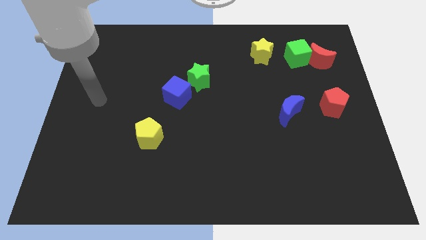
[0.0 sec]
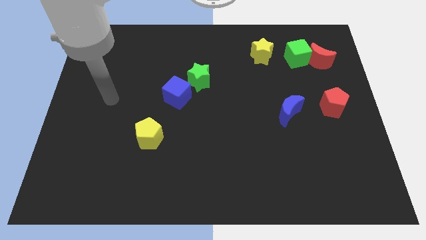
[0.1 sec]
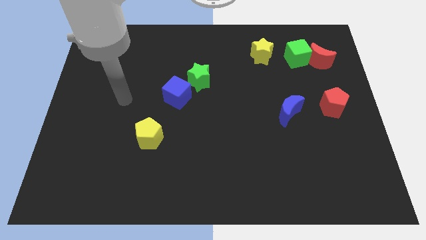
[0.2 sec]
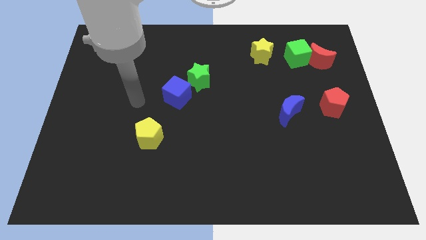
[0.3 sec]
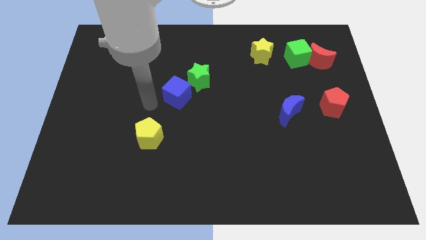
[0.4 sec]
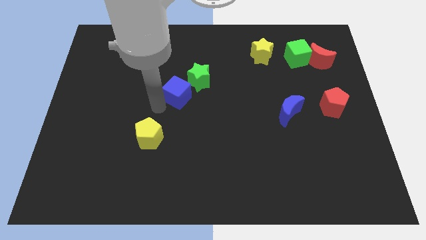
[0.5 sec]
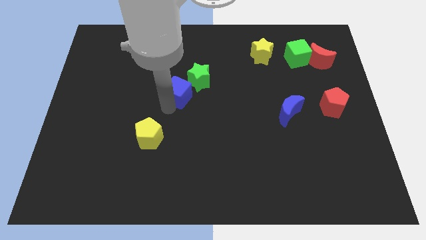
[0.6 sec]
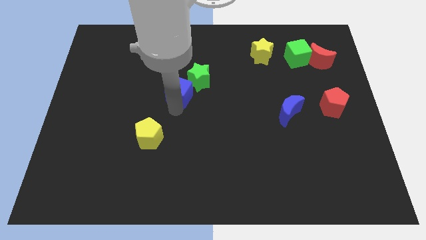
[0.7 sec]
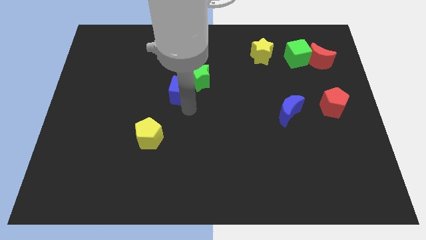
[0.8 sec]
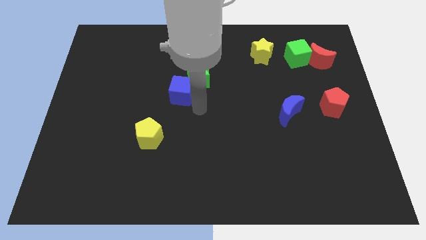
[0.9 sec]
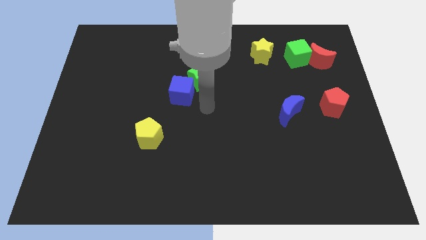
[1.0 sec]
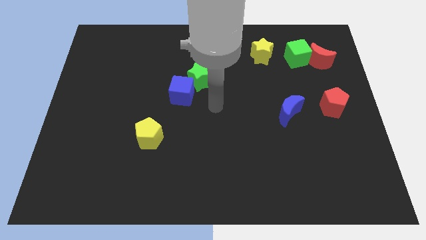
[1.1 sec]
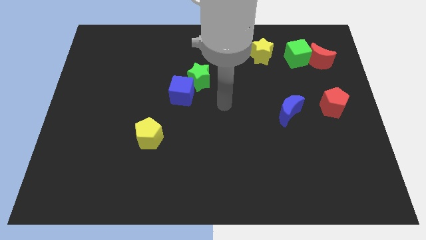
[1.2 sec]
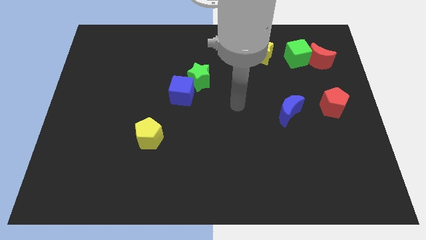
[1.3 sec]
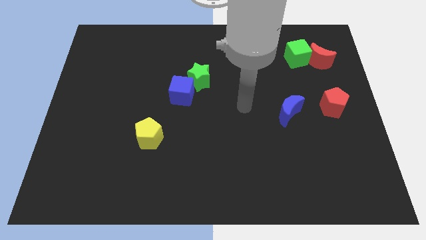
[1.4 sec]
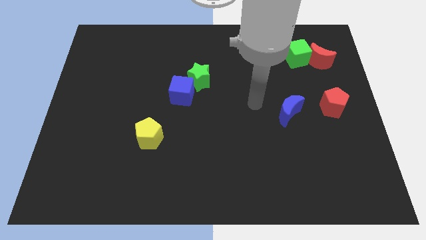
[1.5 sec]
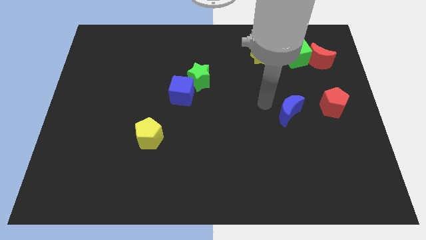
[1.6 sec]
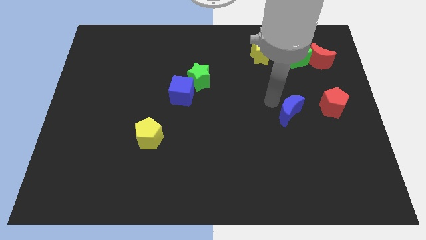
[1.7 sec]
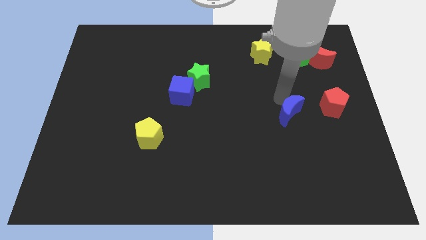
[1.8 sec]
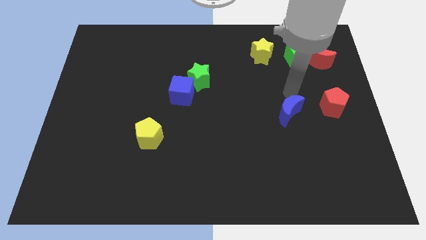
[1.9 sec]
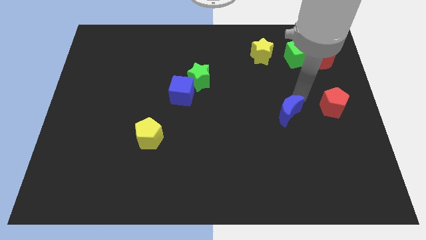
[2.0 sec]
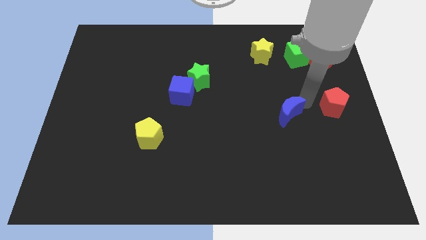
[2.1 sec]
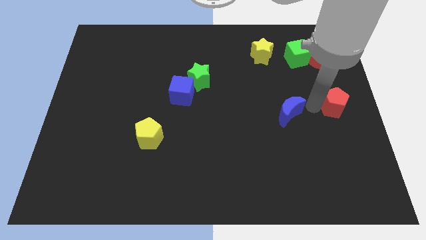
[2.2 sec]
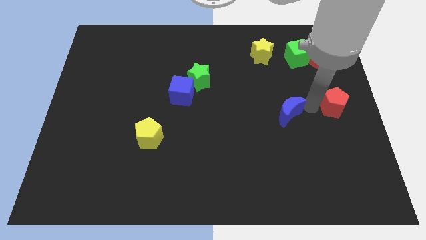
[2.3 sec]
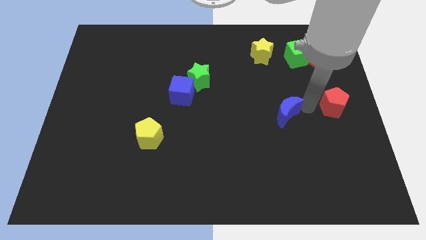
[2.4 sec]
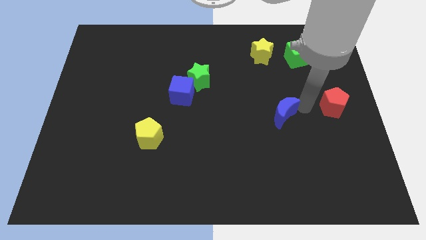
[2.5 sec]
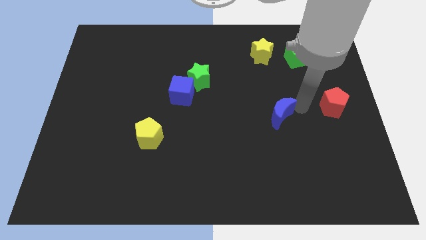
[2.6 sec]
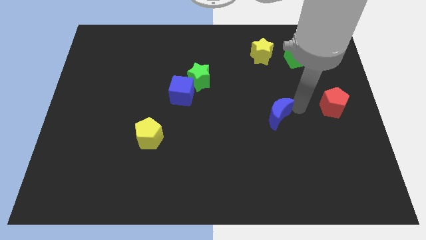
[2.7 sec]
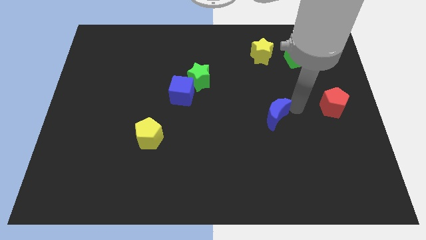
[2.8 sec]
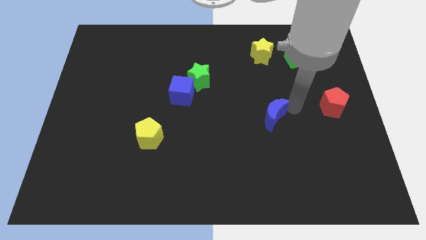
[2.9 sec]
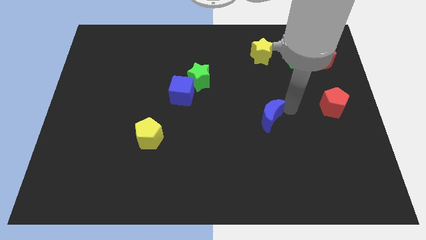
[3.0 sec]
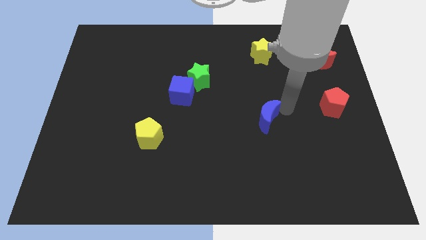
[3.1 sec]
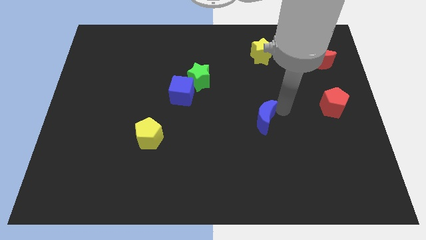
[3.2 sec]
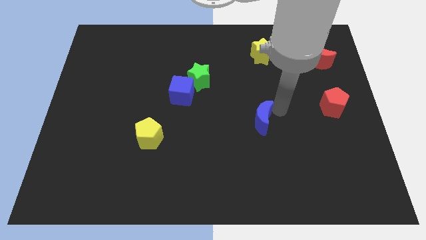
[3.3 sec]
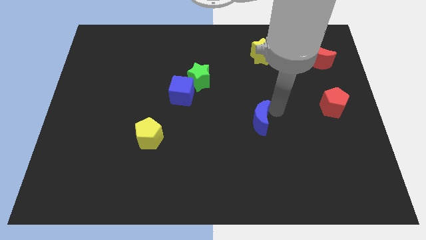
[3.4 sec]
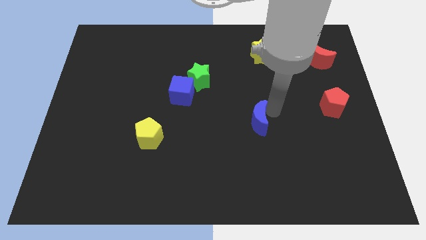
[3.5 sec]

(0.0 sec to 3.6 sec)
move the blue moon to the left a little

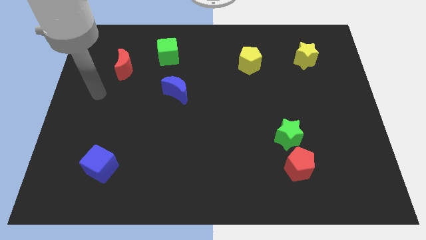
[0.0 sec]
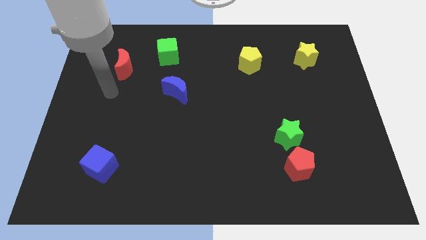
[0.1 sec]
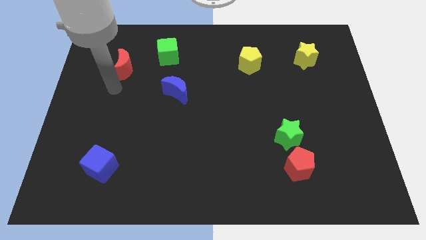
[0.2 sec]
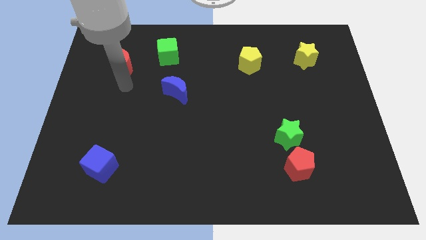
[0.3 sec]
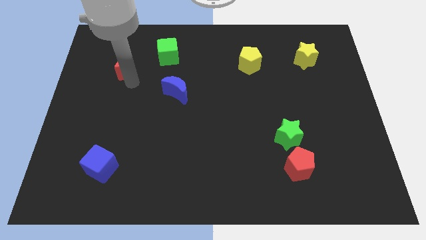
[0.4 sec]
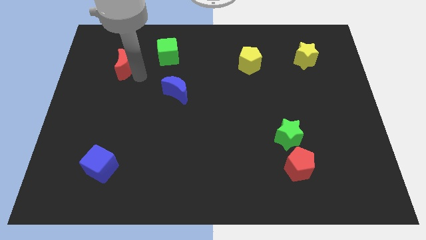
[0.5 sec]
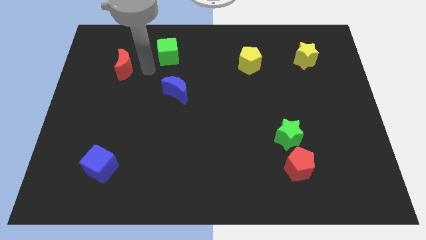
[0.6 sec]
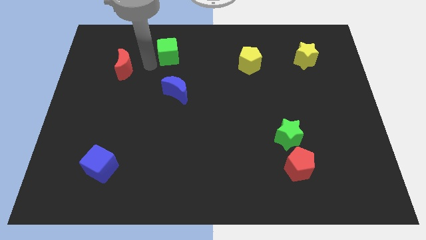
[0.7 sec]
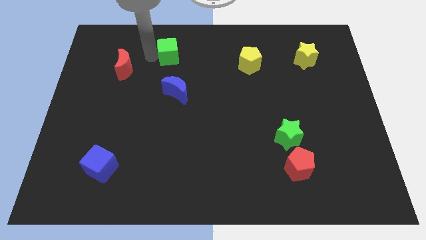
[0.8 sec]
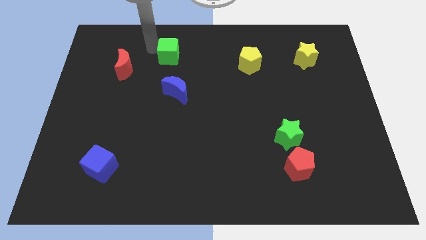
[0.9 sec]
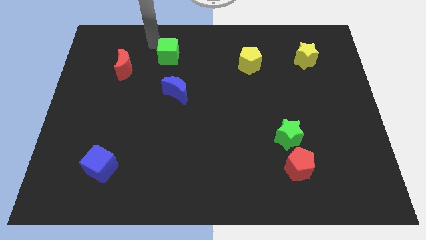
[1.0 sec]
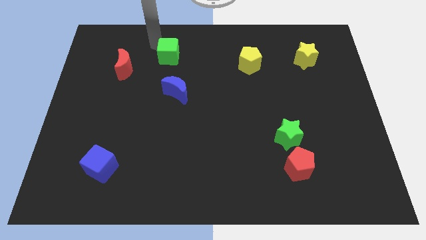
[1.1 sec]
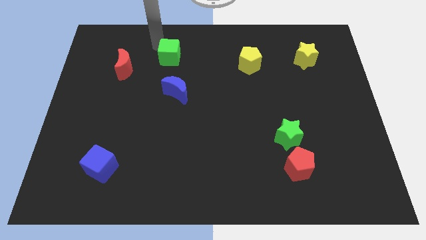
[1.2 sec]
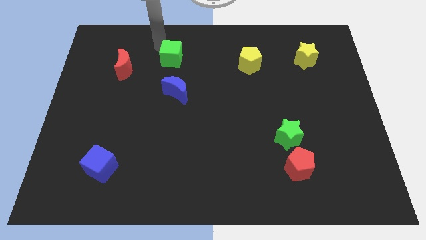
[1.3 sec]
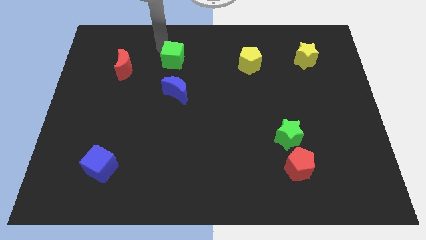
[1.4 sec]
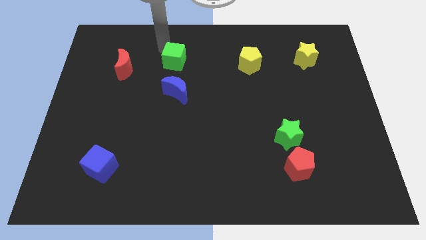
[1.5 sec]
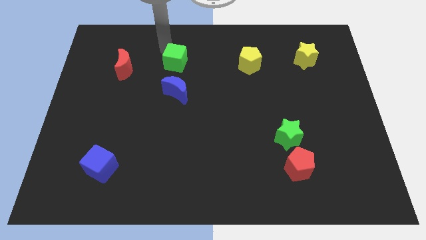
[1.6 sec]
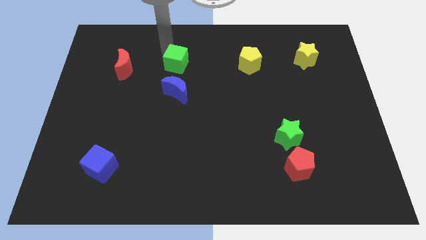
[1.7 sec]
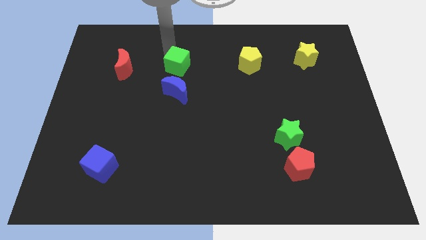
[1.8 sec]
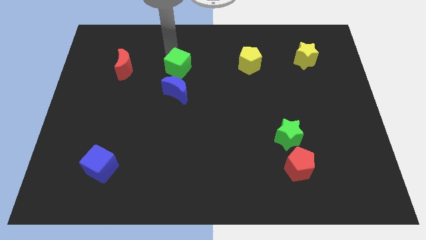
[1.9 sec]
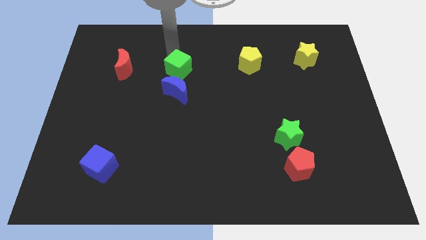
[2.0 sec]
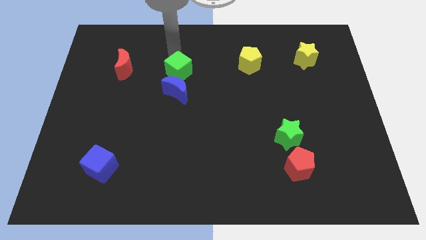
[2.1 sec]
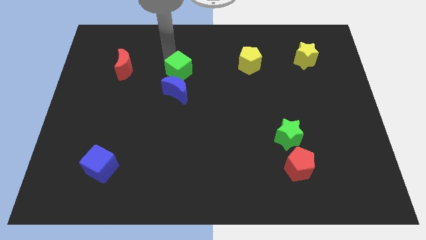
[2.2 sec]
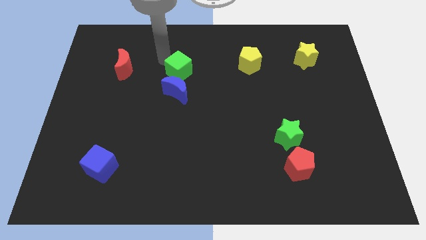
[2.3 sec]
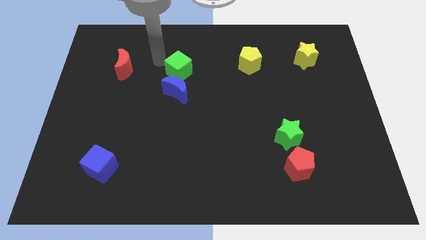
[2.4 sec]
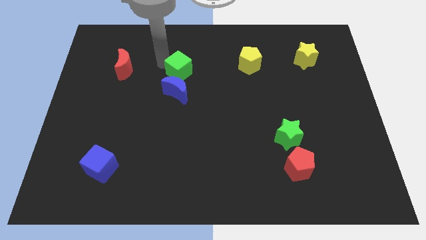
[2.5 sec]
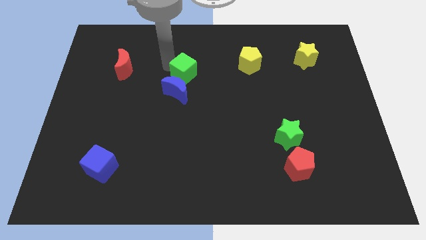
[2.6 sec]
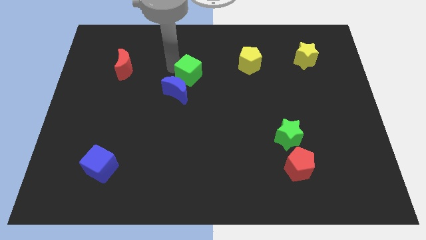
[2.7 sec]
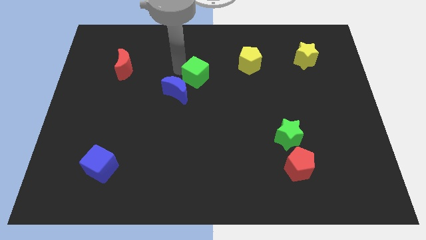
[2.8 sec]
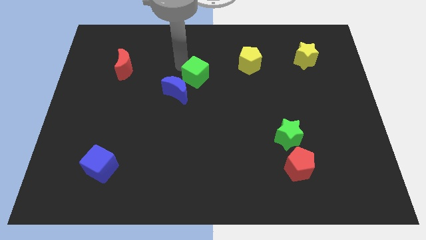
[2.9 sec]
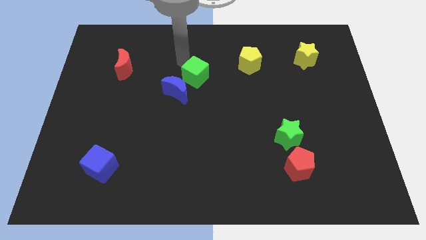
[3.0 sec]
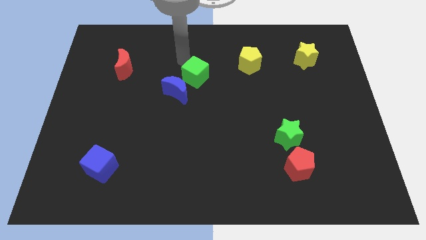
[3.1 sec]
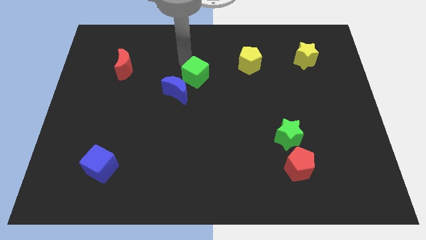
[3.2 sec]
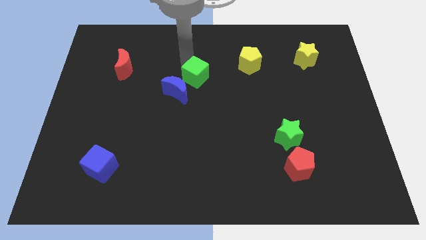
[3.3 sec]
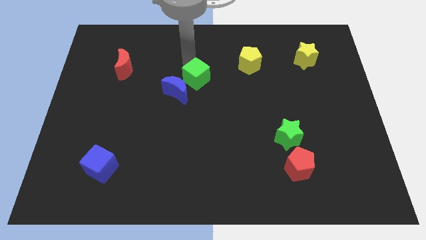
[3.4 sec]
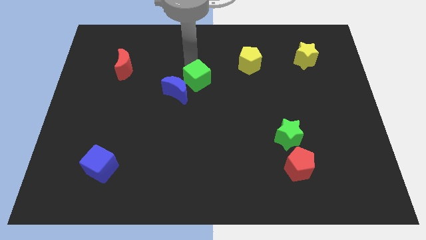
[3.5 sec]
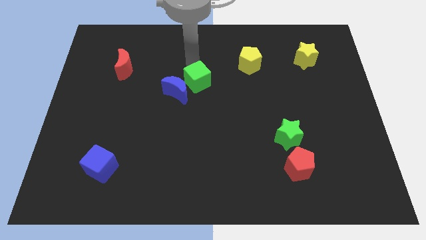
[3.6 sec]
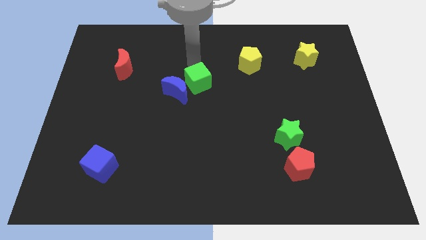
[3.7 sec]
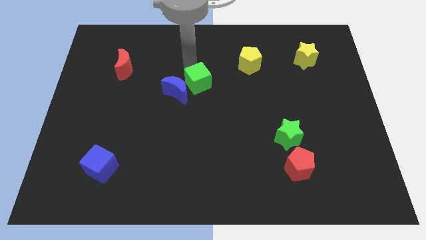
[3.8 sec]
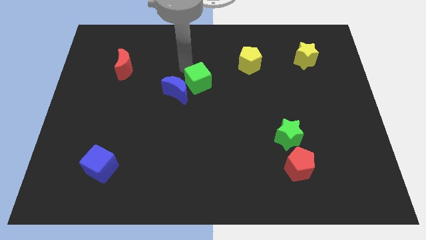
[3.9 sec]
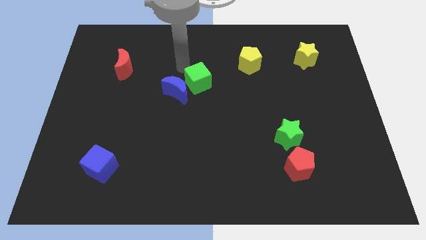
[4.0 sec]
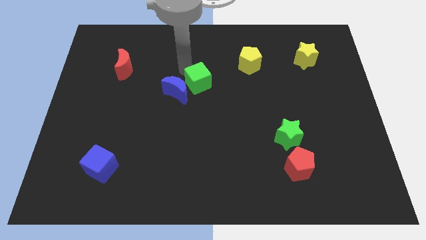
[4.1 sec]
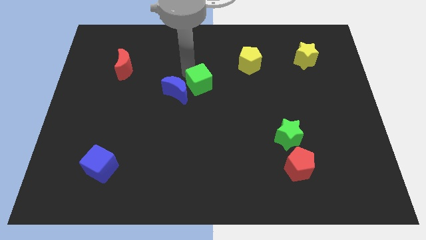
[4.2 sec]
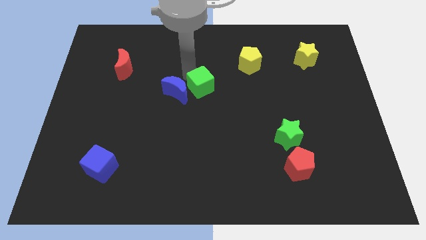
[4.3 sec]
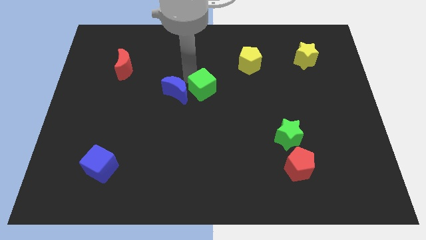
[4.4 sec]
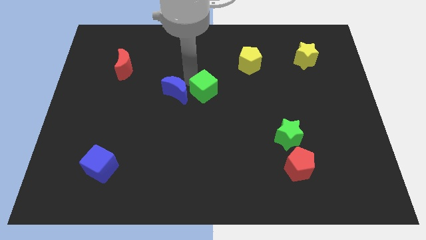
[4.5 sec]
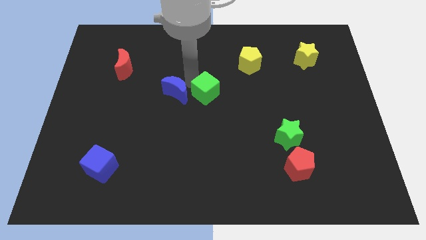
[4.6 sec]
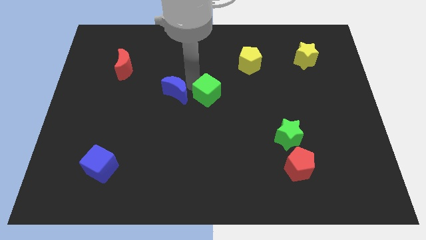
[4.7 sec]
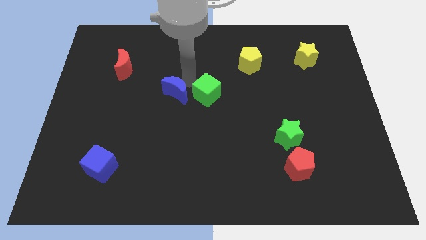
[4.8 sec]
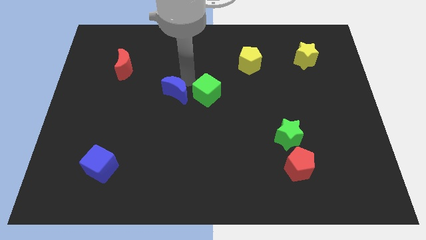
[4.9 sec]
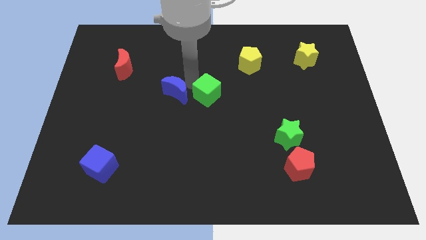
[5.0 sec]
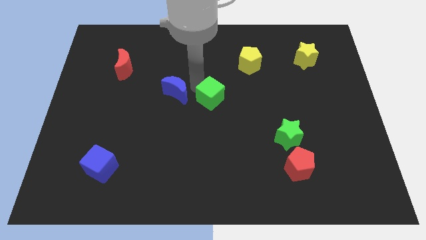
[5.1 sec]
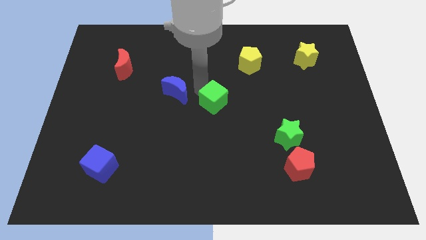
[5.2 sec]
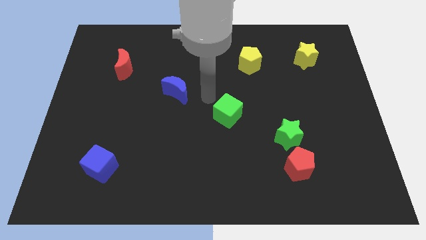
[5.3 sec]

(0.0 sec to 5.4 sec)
push the green cube diagonally downwards and right
